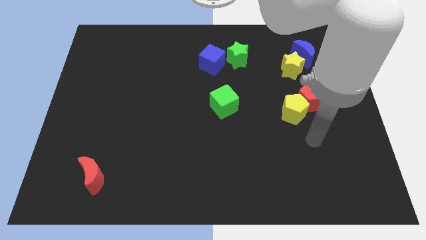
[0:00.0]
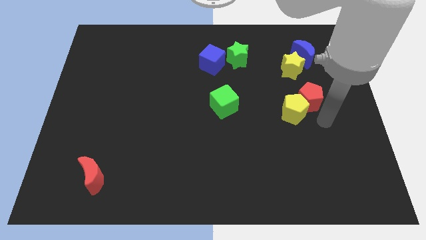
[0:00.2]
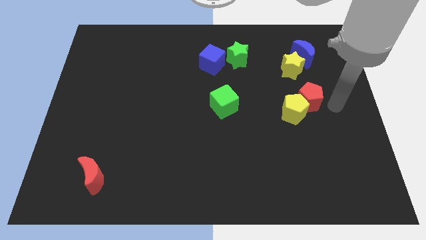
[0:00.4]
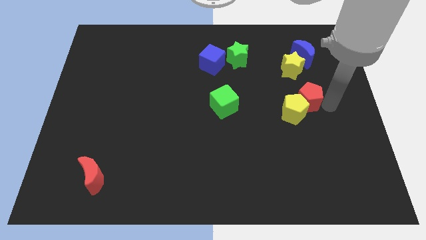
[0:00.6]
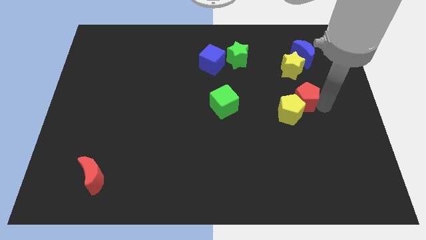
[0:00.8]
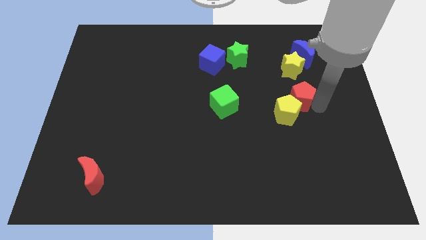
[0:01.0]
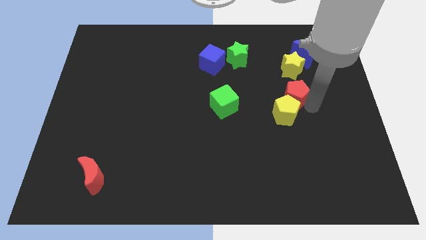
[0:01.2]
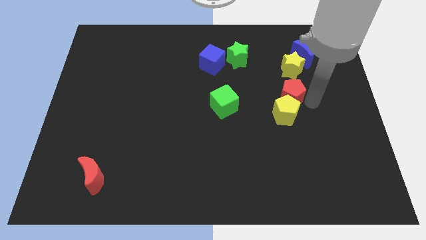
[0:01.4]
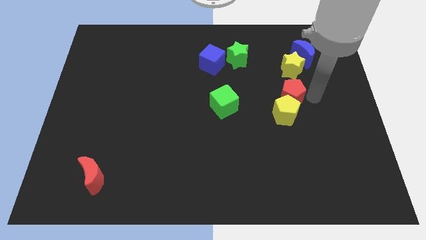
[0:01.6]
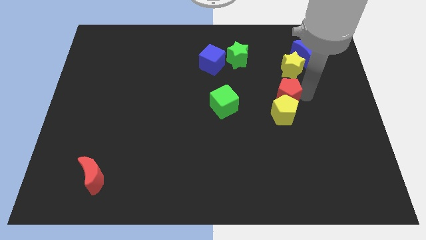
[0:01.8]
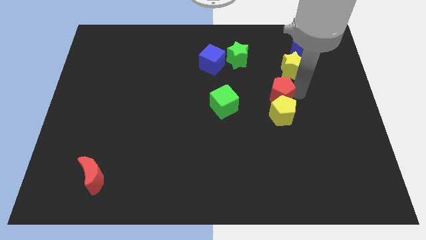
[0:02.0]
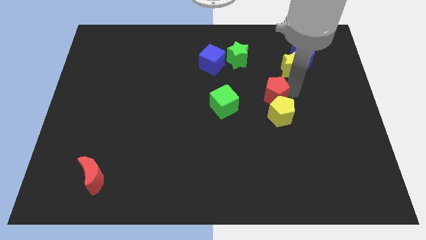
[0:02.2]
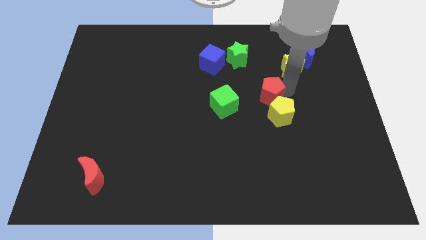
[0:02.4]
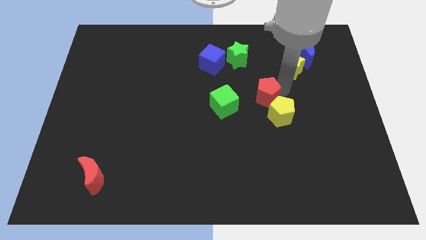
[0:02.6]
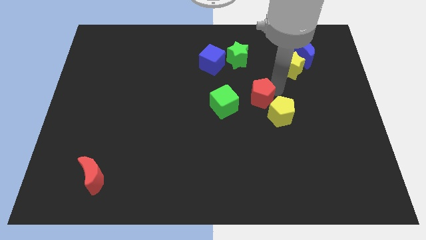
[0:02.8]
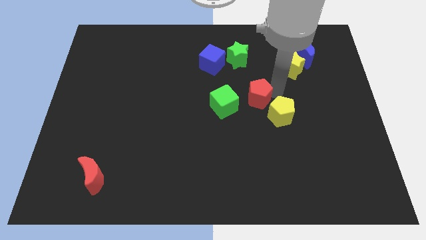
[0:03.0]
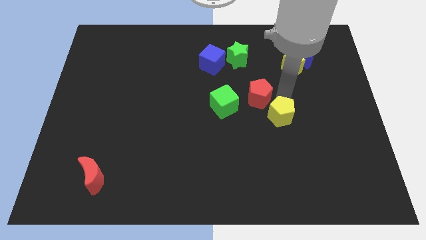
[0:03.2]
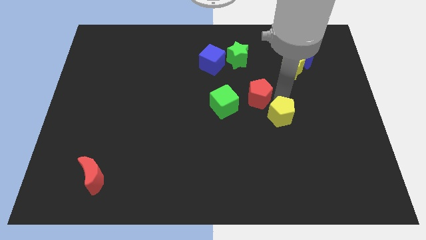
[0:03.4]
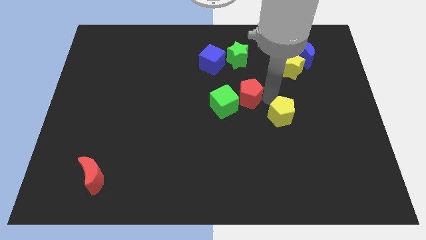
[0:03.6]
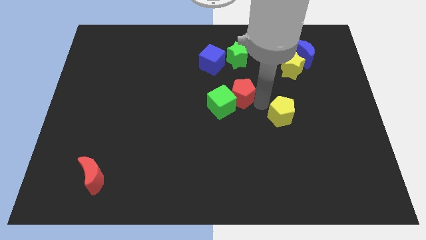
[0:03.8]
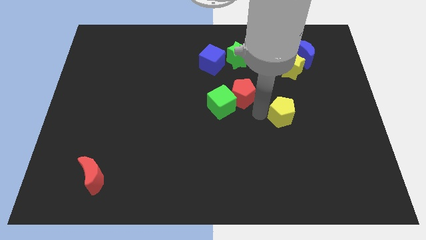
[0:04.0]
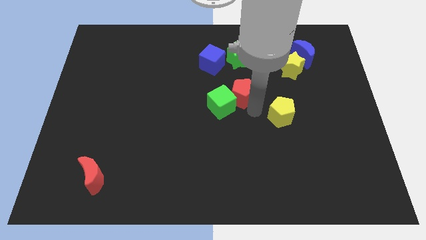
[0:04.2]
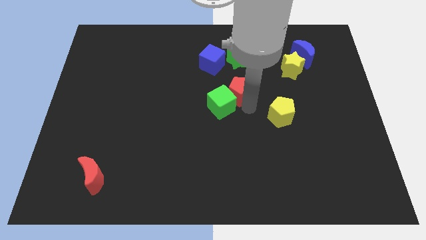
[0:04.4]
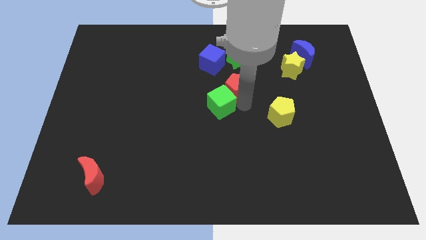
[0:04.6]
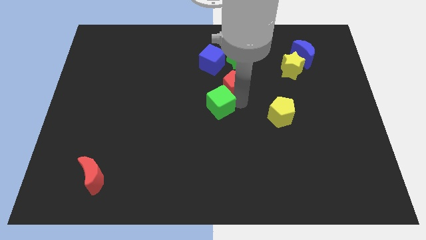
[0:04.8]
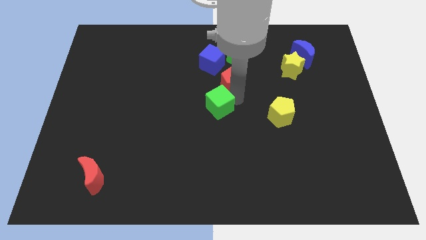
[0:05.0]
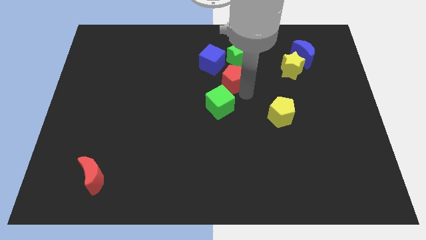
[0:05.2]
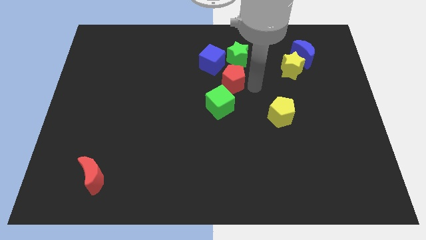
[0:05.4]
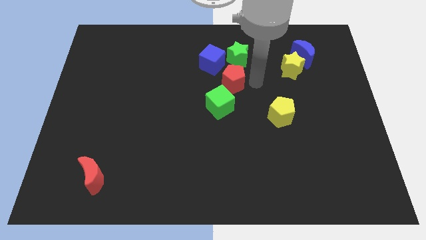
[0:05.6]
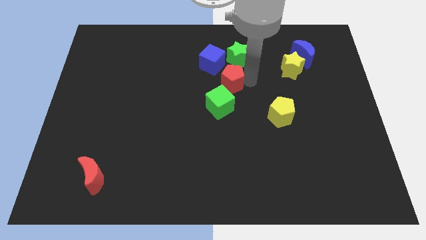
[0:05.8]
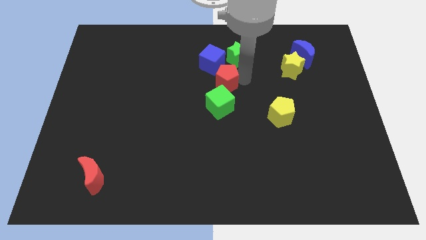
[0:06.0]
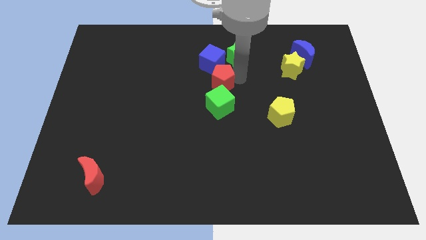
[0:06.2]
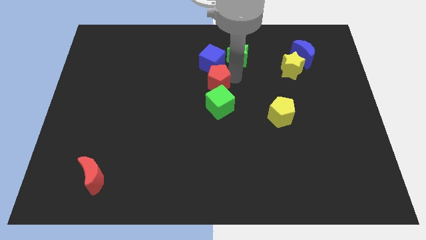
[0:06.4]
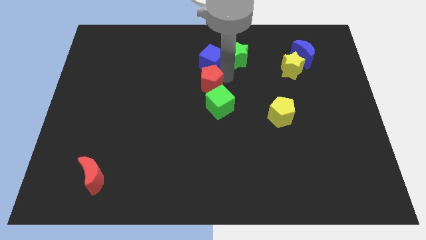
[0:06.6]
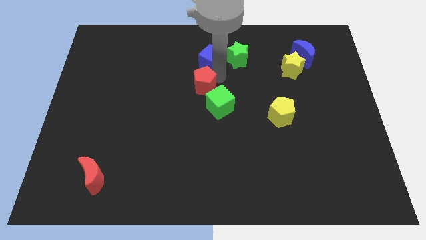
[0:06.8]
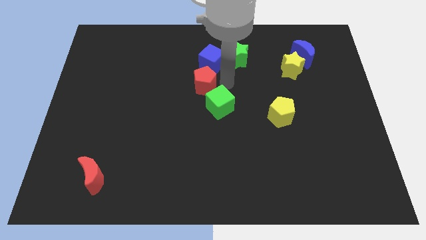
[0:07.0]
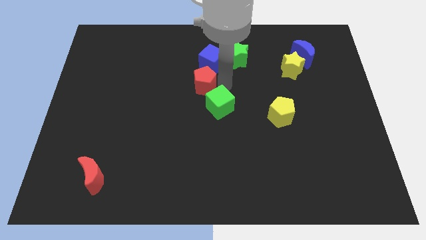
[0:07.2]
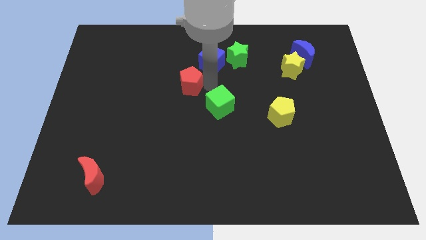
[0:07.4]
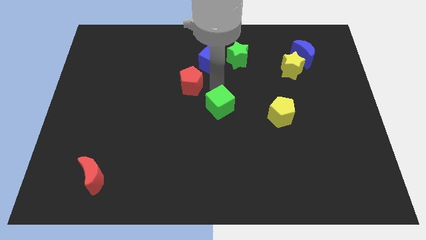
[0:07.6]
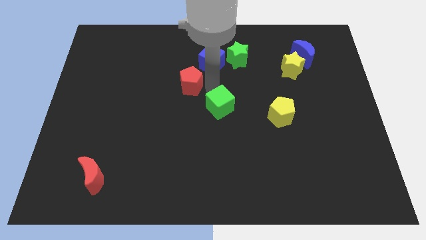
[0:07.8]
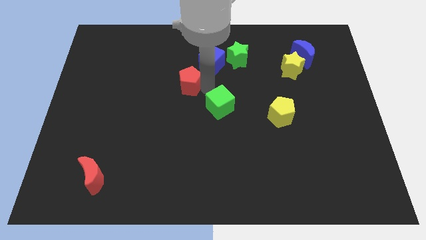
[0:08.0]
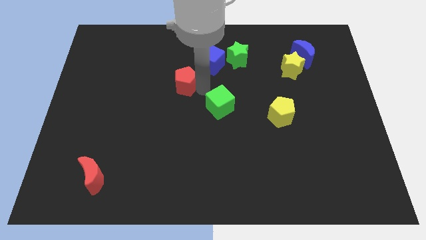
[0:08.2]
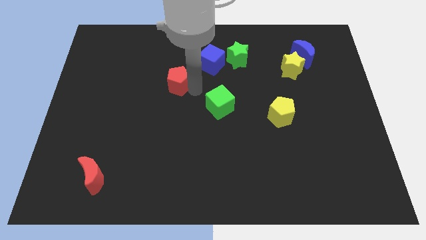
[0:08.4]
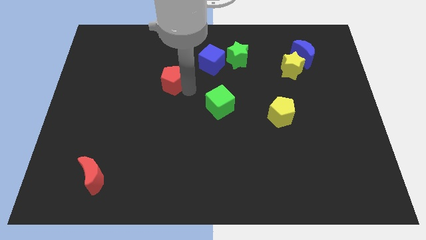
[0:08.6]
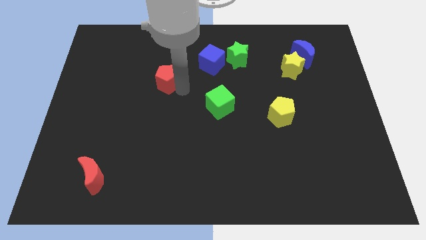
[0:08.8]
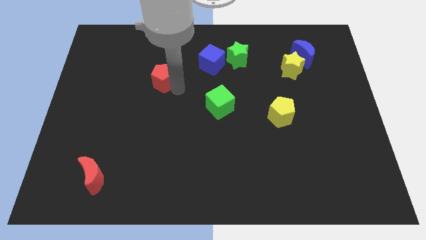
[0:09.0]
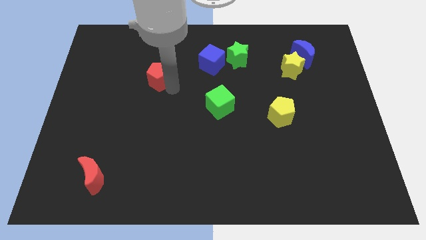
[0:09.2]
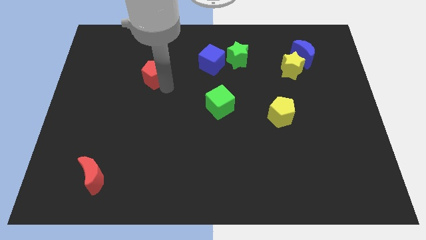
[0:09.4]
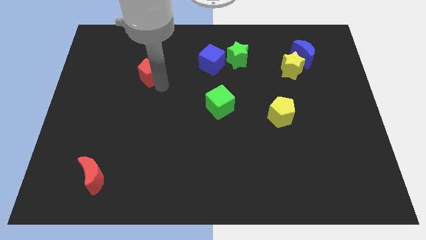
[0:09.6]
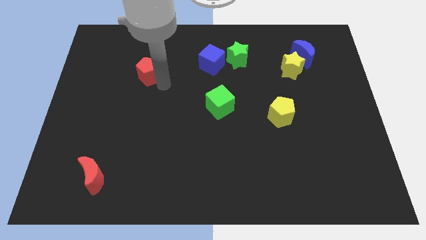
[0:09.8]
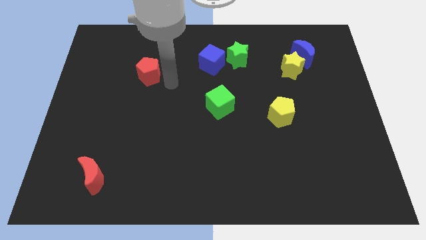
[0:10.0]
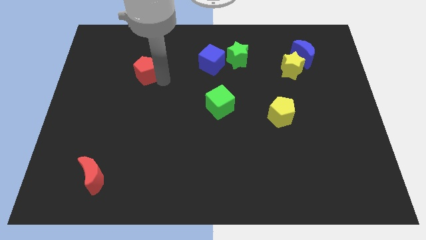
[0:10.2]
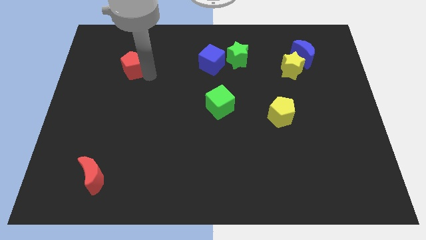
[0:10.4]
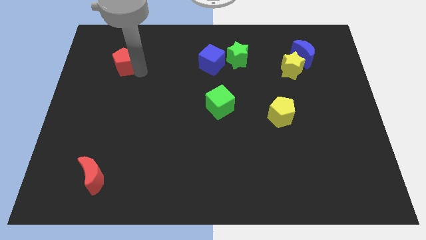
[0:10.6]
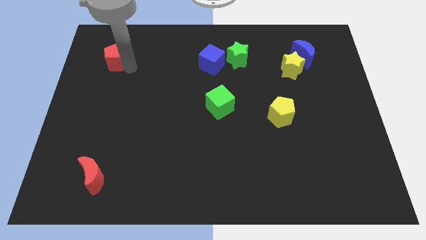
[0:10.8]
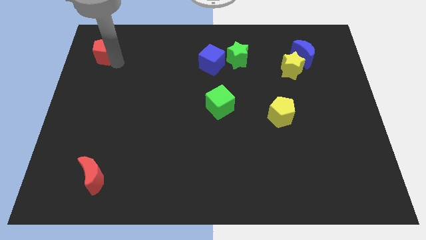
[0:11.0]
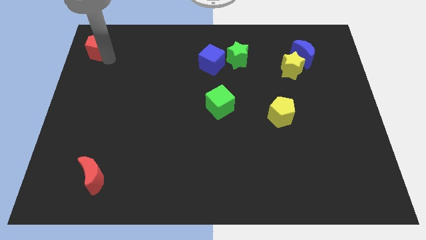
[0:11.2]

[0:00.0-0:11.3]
move the red pentagon to the top left corner

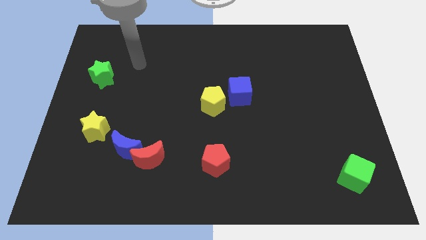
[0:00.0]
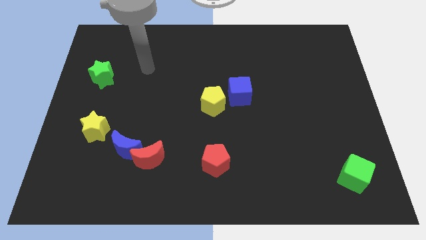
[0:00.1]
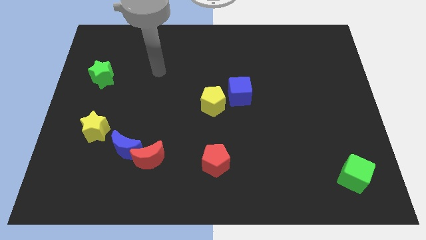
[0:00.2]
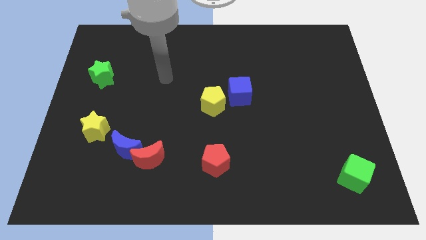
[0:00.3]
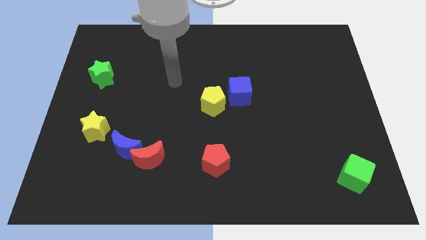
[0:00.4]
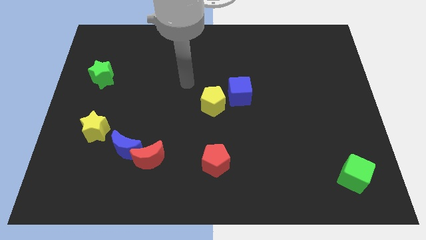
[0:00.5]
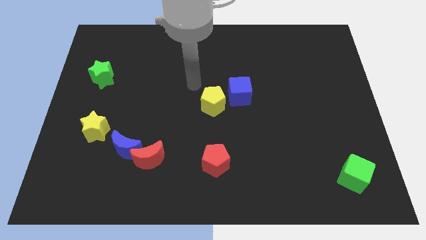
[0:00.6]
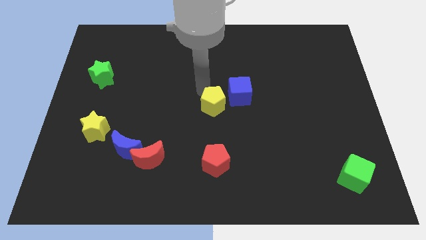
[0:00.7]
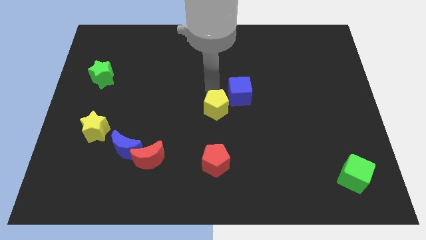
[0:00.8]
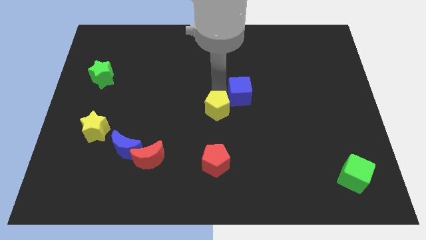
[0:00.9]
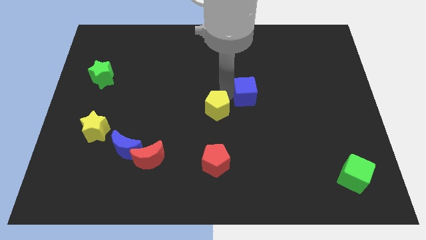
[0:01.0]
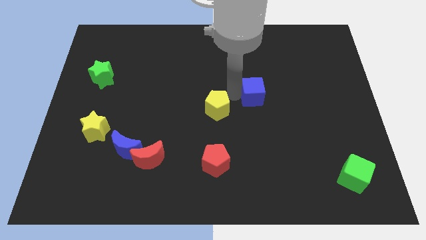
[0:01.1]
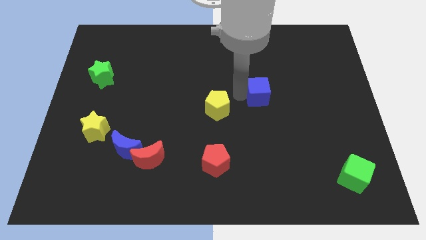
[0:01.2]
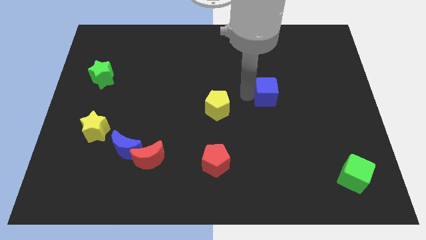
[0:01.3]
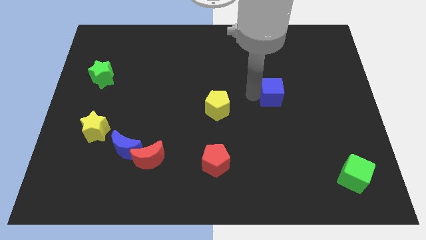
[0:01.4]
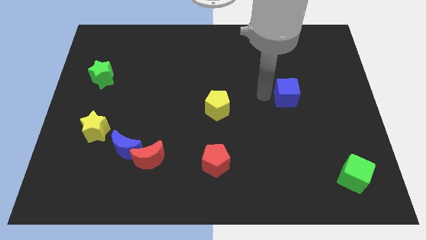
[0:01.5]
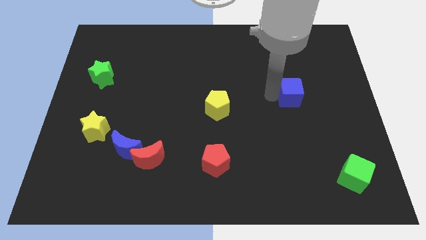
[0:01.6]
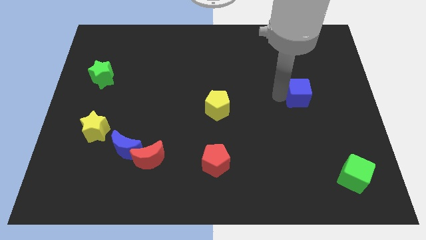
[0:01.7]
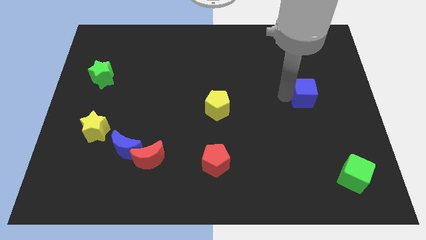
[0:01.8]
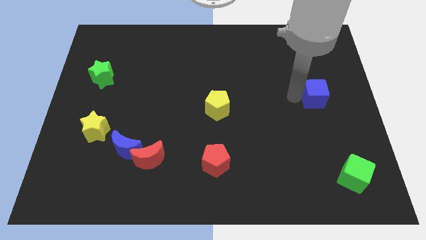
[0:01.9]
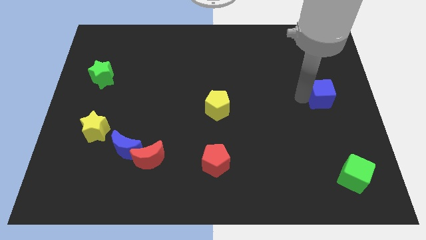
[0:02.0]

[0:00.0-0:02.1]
put the blue cube to the center right
